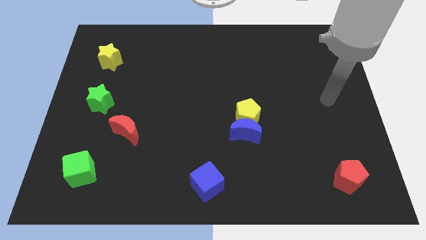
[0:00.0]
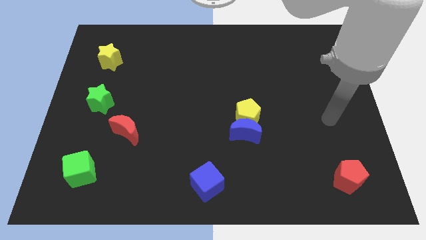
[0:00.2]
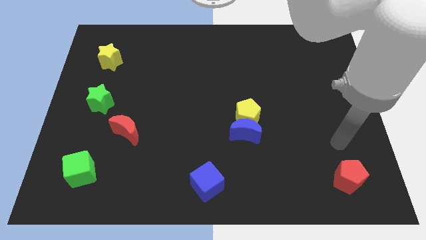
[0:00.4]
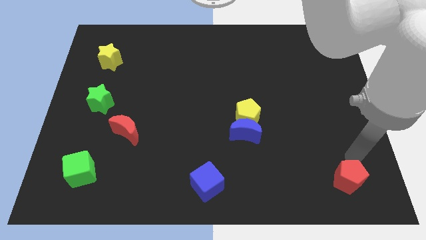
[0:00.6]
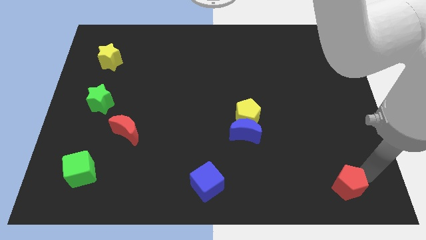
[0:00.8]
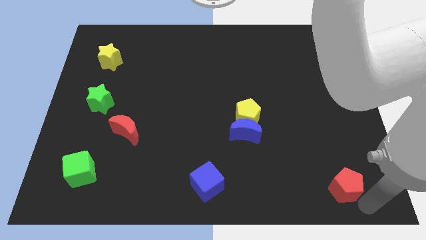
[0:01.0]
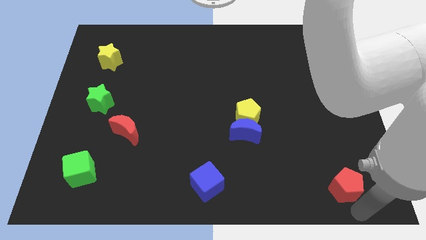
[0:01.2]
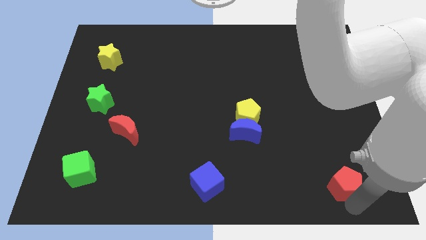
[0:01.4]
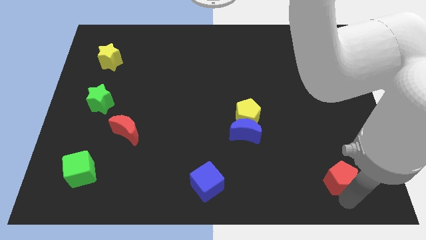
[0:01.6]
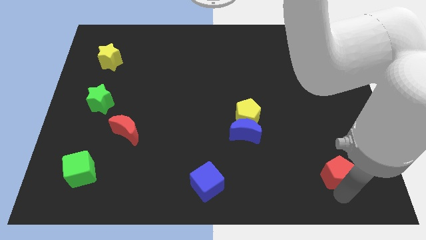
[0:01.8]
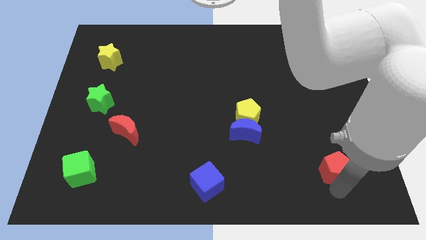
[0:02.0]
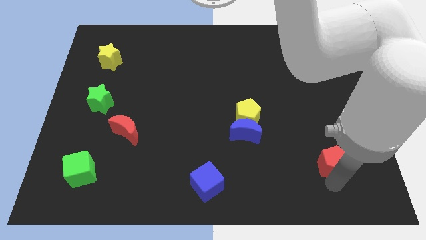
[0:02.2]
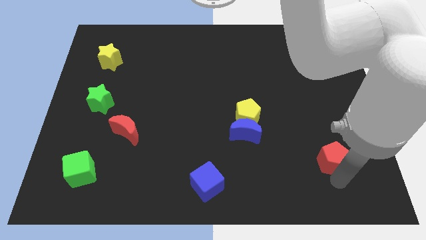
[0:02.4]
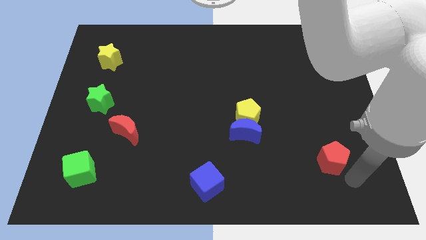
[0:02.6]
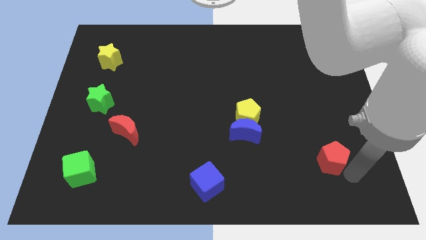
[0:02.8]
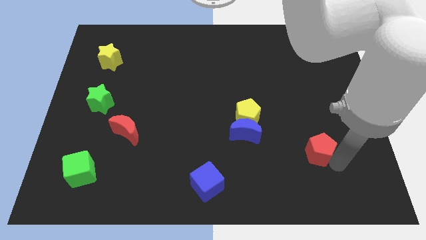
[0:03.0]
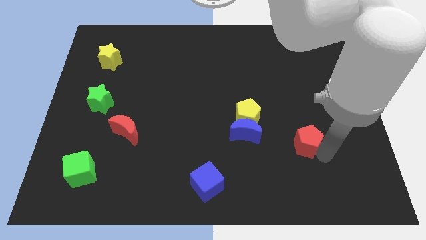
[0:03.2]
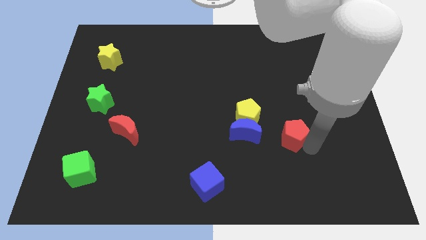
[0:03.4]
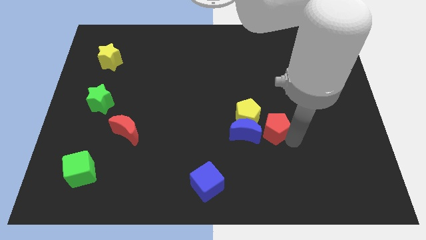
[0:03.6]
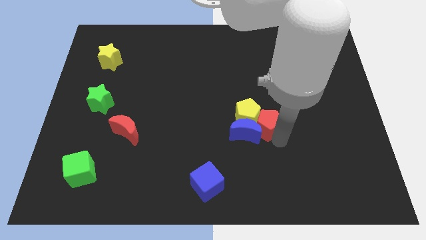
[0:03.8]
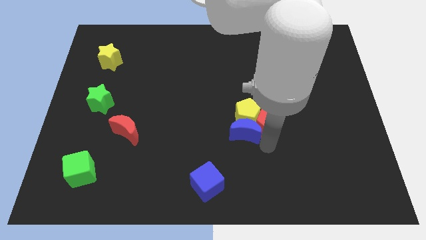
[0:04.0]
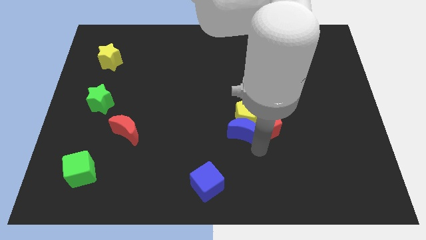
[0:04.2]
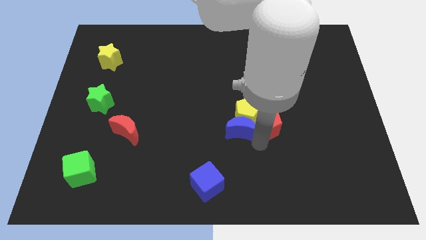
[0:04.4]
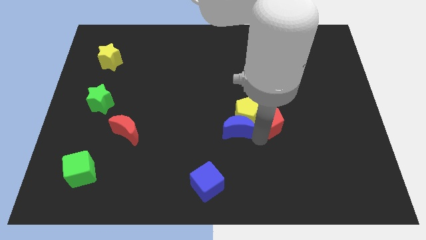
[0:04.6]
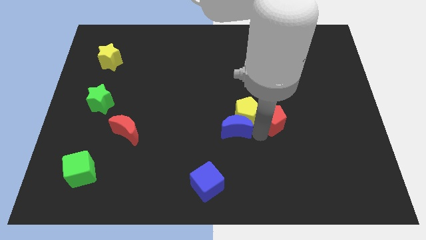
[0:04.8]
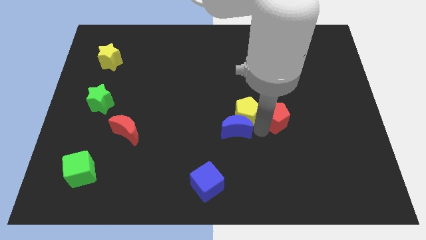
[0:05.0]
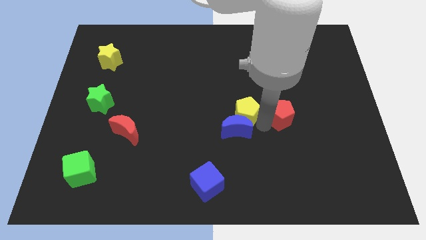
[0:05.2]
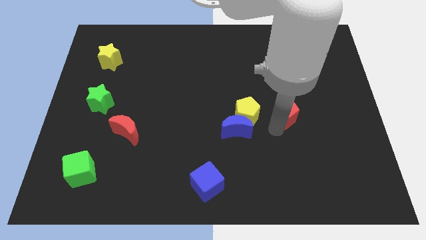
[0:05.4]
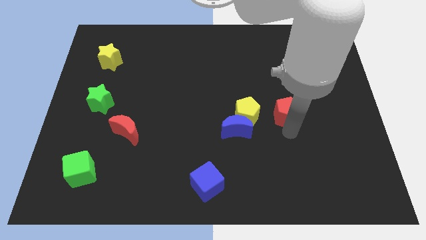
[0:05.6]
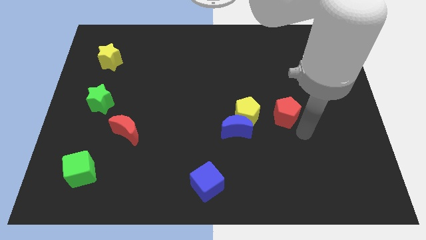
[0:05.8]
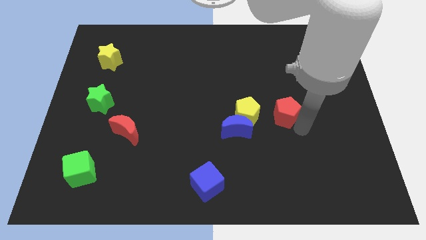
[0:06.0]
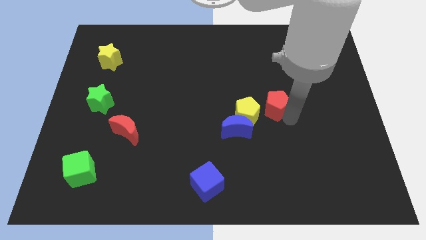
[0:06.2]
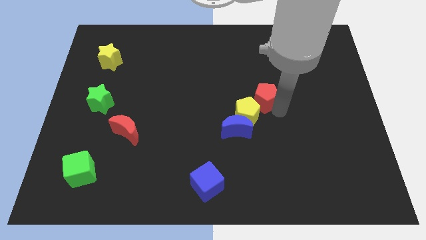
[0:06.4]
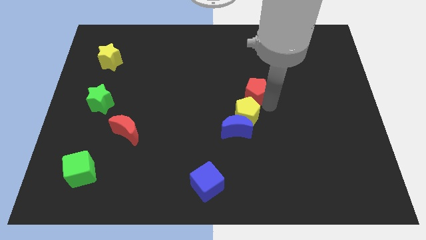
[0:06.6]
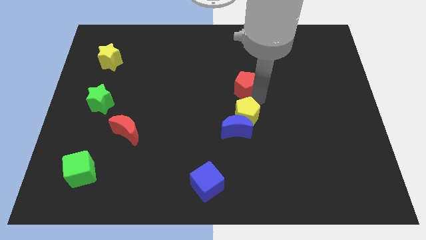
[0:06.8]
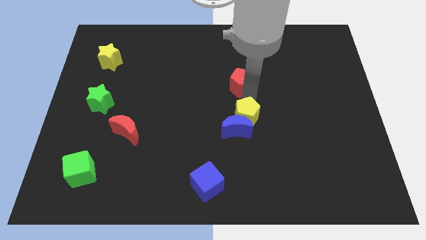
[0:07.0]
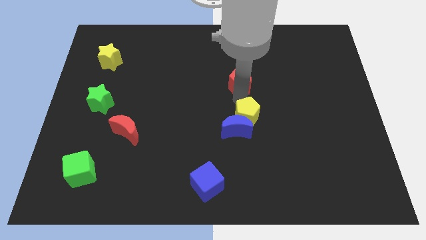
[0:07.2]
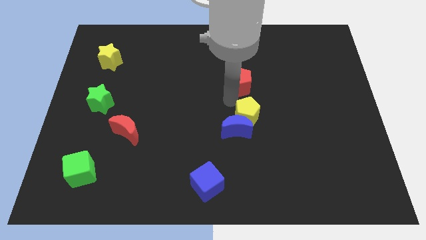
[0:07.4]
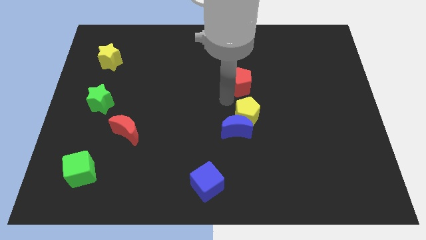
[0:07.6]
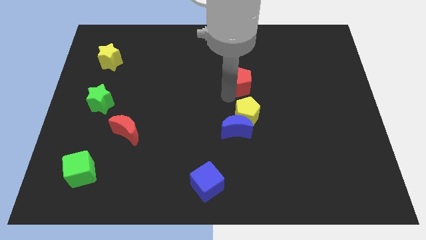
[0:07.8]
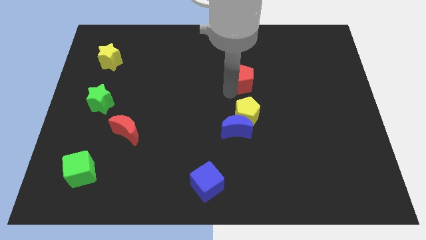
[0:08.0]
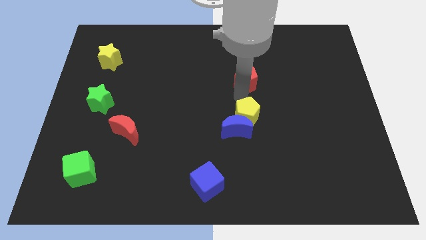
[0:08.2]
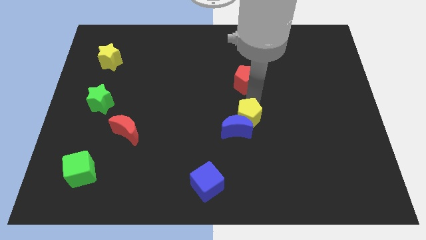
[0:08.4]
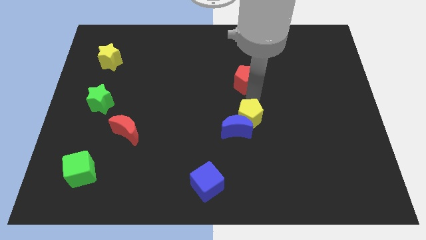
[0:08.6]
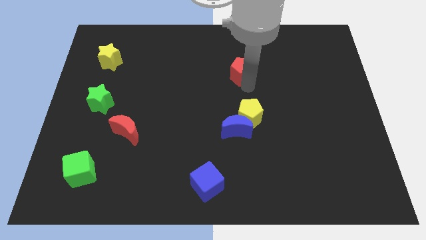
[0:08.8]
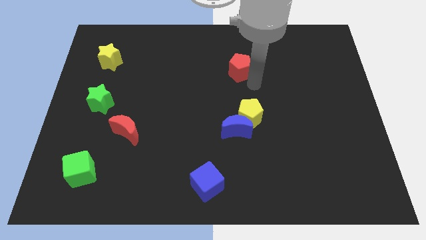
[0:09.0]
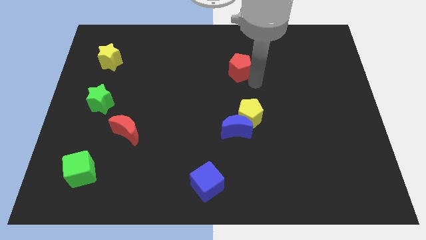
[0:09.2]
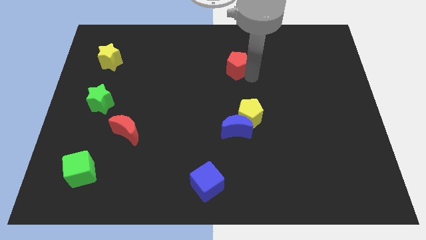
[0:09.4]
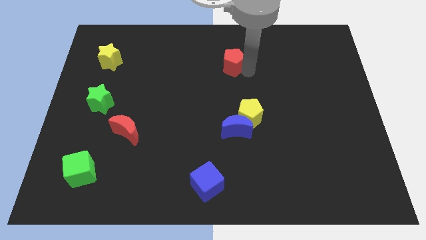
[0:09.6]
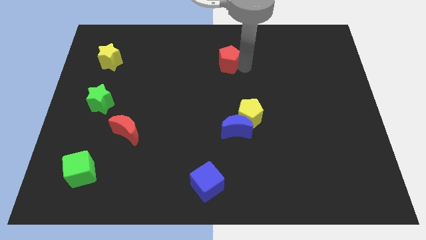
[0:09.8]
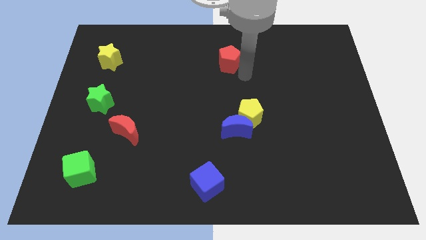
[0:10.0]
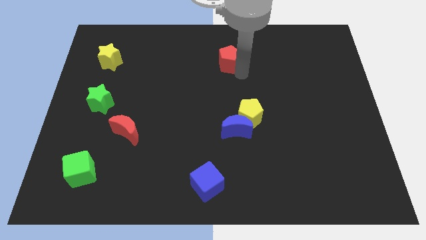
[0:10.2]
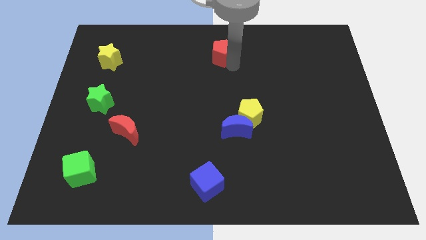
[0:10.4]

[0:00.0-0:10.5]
push the red pentagon to the towards your base

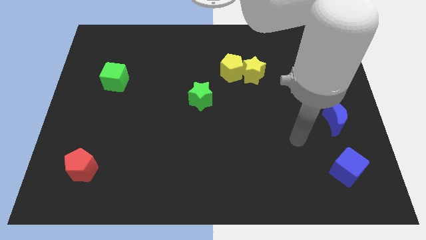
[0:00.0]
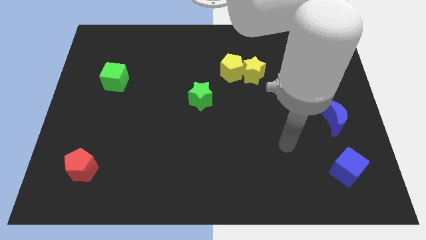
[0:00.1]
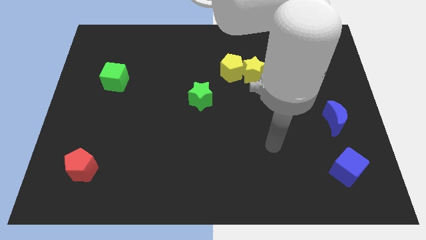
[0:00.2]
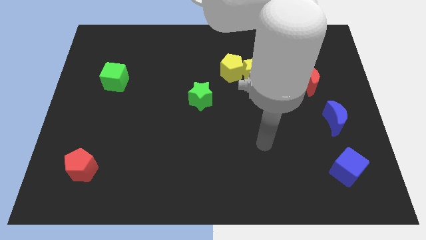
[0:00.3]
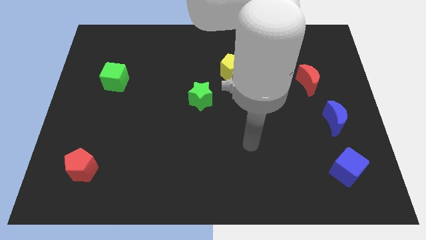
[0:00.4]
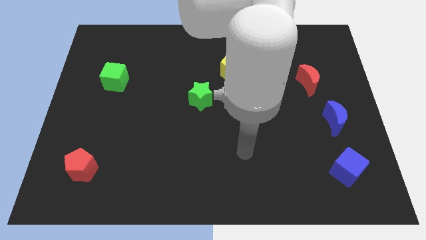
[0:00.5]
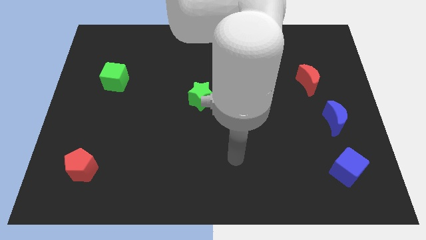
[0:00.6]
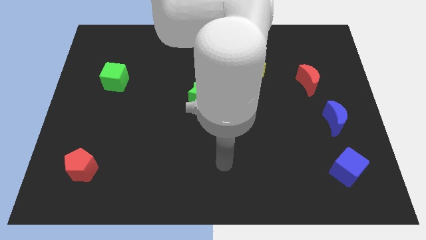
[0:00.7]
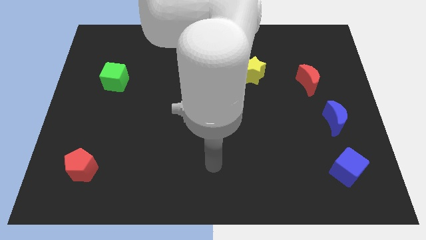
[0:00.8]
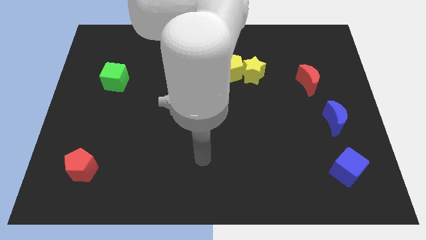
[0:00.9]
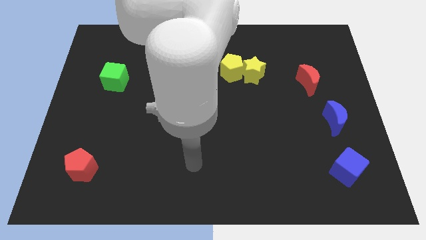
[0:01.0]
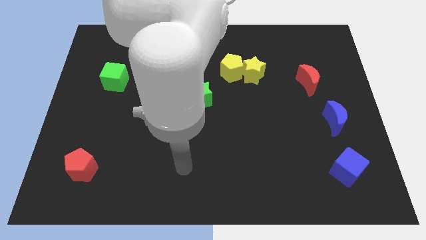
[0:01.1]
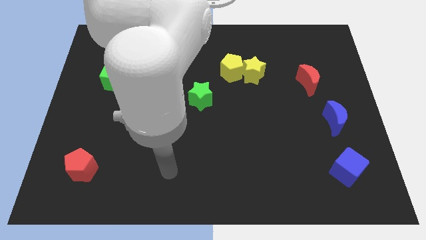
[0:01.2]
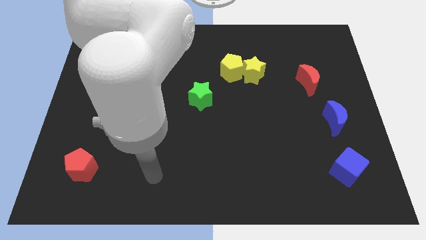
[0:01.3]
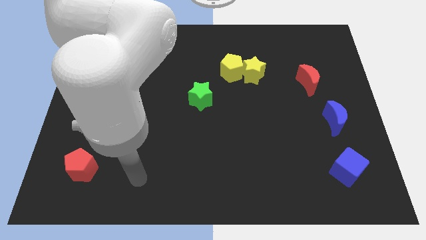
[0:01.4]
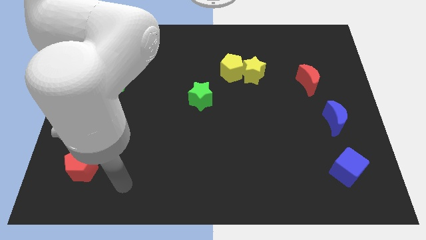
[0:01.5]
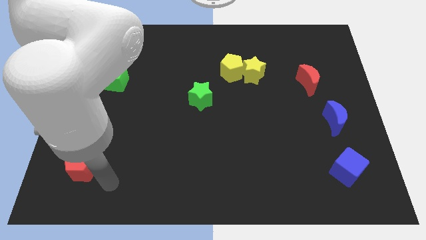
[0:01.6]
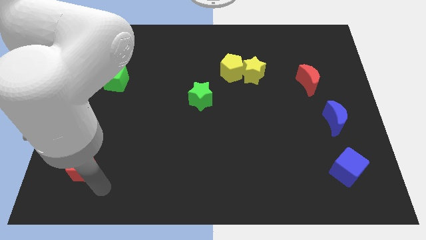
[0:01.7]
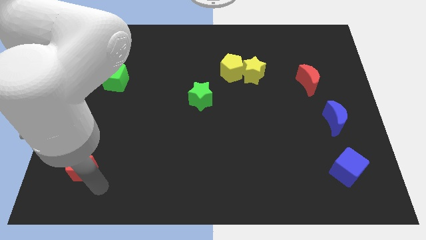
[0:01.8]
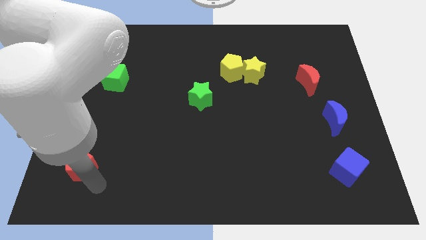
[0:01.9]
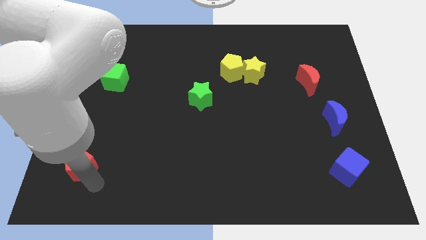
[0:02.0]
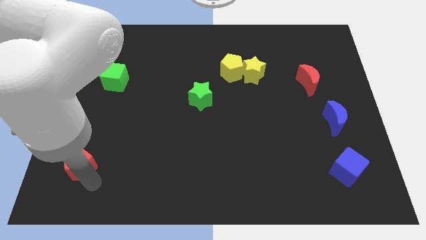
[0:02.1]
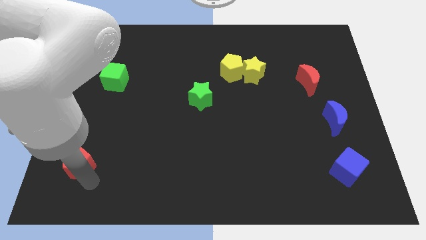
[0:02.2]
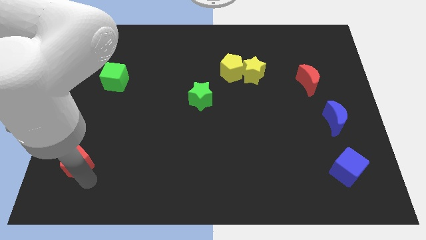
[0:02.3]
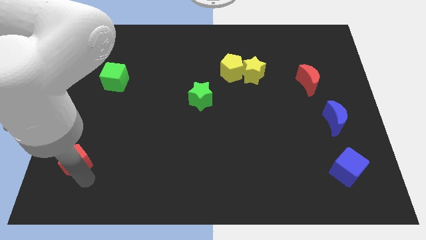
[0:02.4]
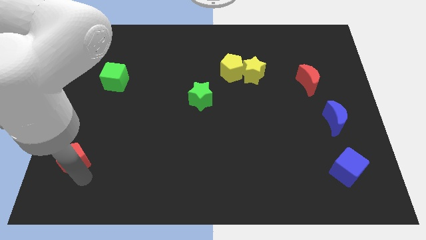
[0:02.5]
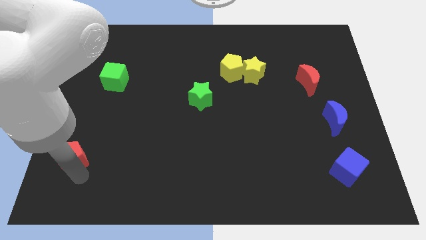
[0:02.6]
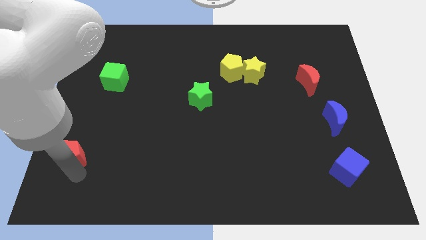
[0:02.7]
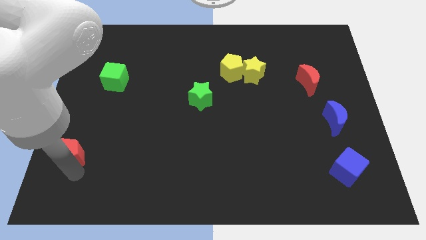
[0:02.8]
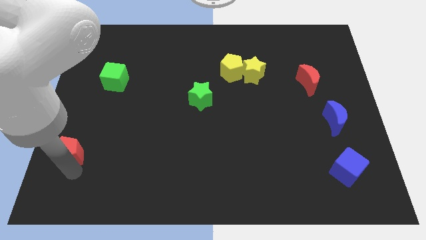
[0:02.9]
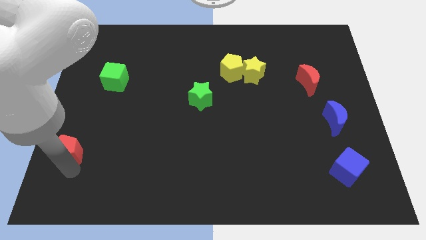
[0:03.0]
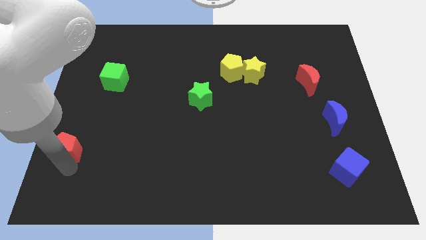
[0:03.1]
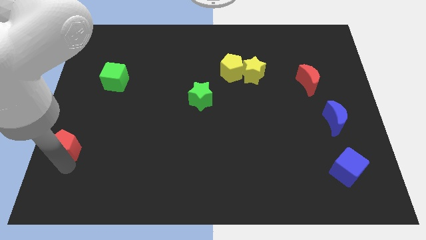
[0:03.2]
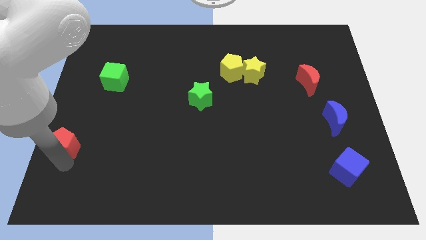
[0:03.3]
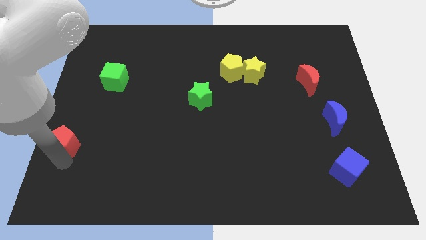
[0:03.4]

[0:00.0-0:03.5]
put the red pentagon to the left side of the board
